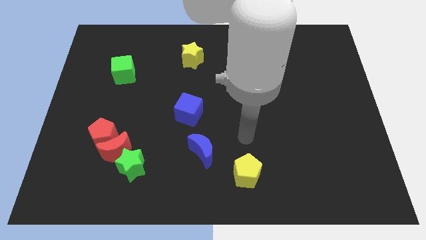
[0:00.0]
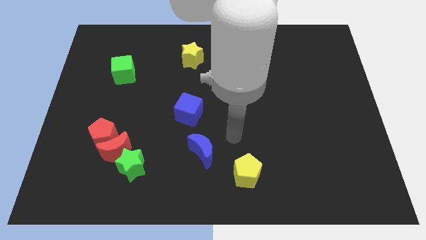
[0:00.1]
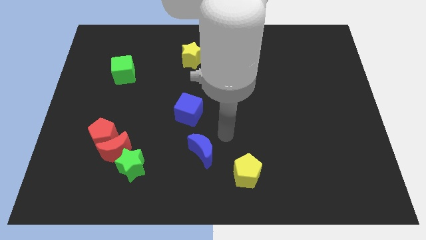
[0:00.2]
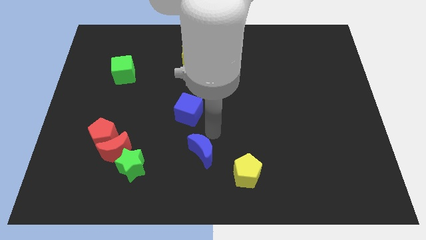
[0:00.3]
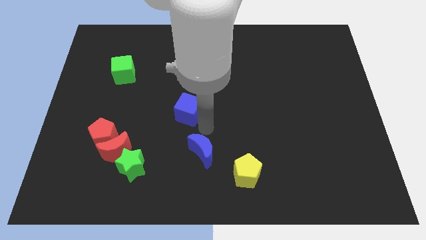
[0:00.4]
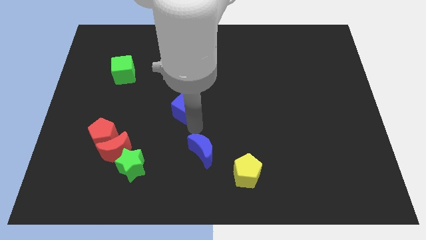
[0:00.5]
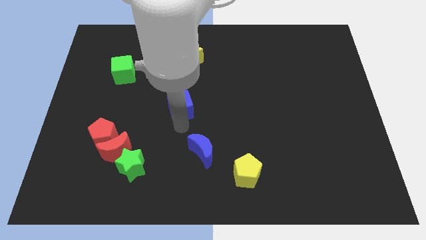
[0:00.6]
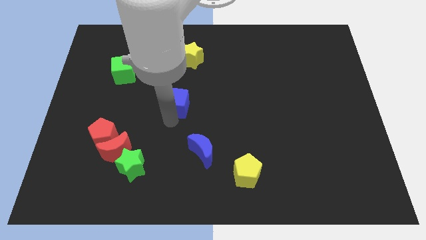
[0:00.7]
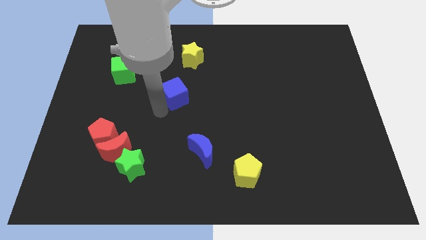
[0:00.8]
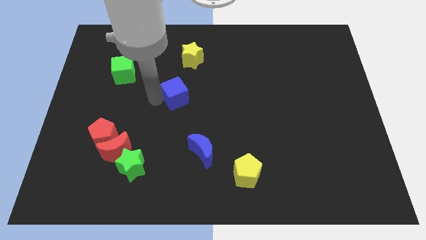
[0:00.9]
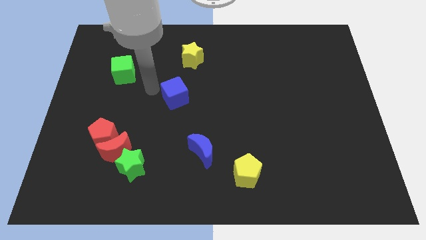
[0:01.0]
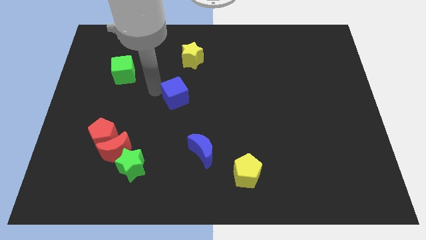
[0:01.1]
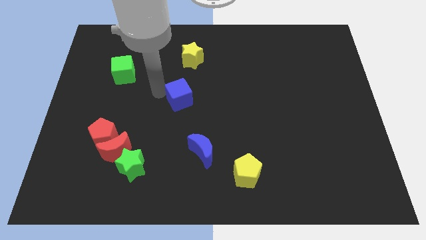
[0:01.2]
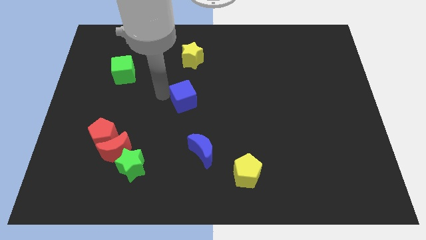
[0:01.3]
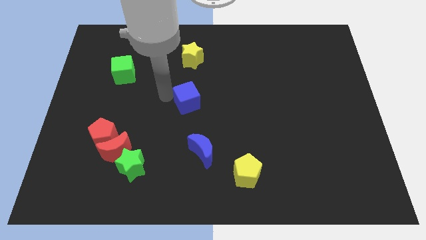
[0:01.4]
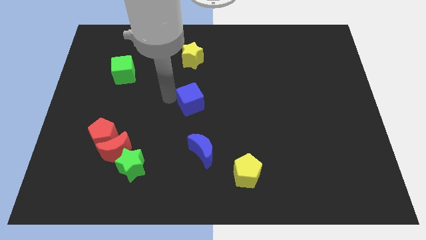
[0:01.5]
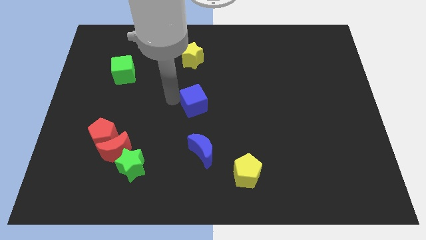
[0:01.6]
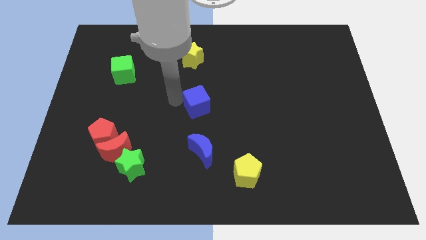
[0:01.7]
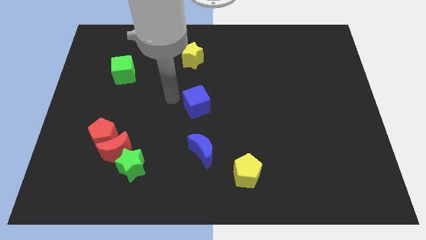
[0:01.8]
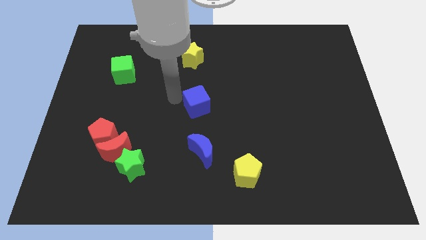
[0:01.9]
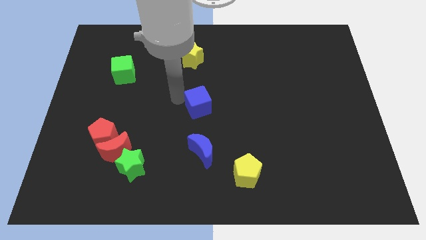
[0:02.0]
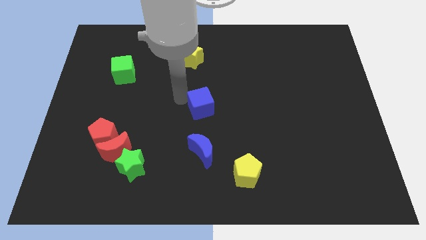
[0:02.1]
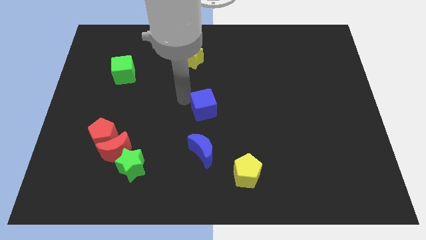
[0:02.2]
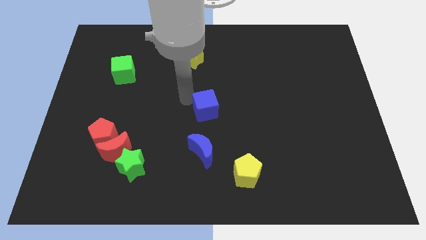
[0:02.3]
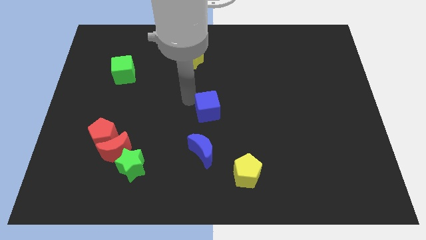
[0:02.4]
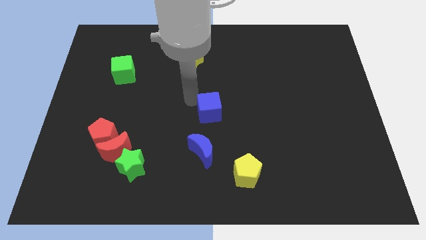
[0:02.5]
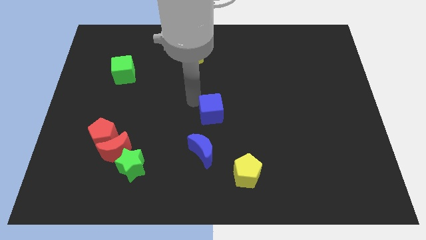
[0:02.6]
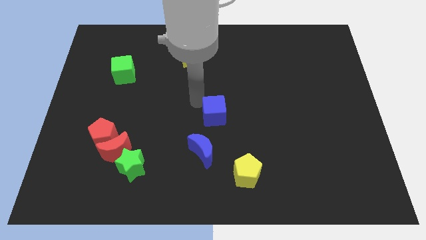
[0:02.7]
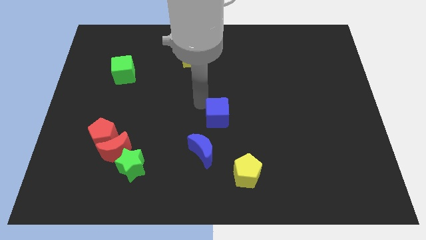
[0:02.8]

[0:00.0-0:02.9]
move the blue cube to the right a little

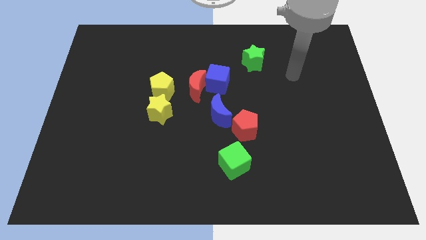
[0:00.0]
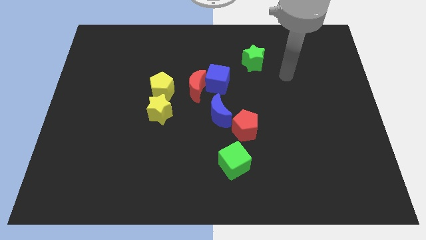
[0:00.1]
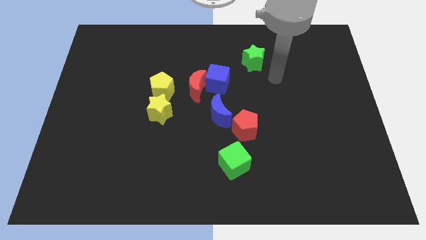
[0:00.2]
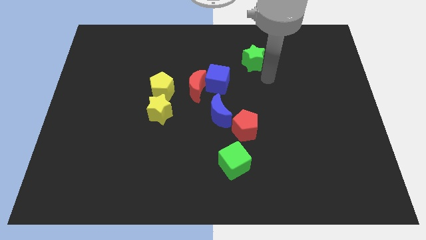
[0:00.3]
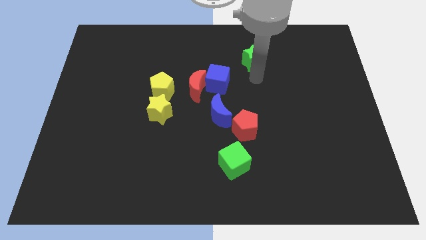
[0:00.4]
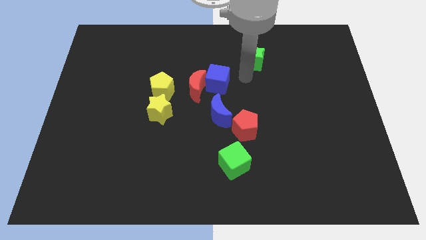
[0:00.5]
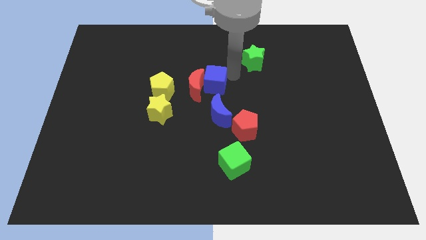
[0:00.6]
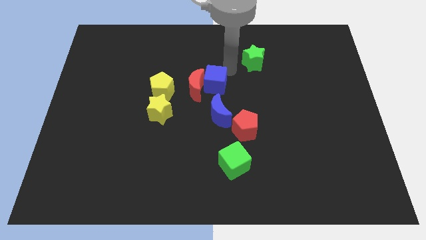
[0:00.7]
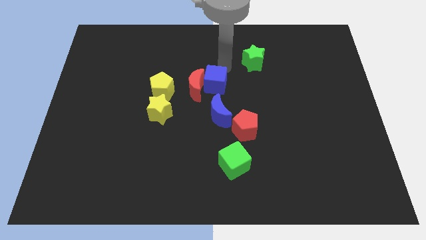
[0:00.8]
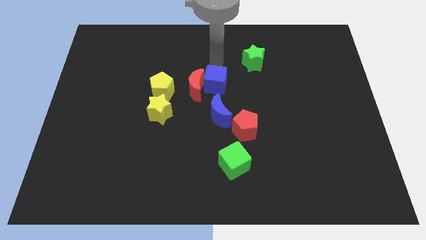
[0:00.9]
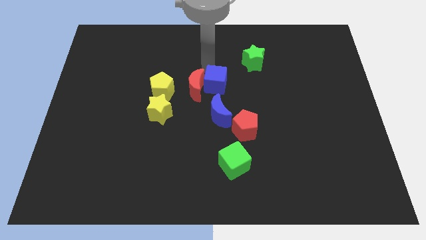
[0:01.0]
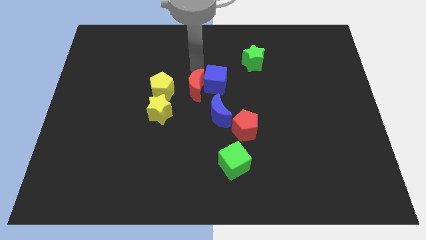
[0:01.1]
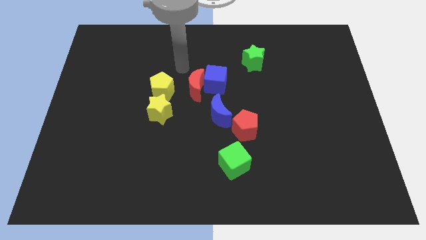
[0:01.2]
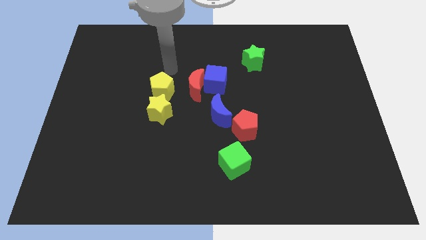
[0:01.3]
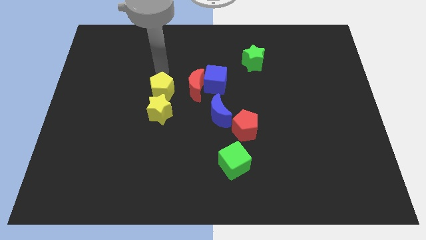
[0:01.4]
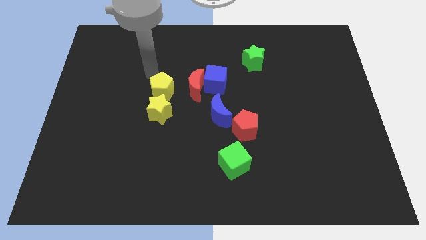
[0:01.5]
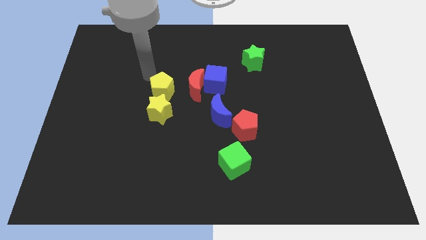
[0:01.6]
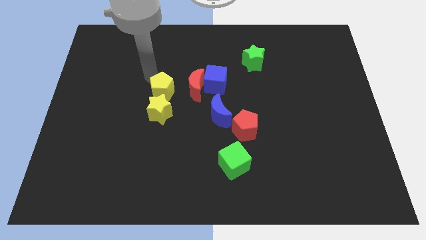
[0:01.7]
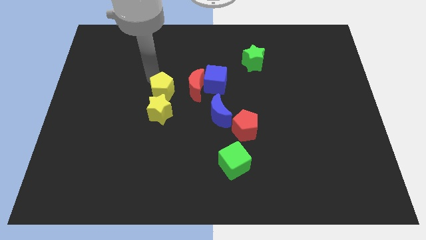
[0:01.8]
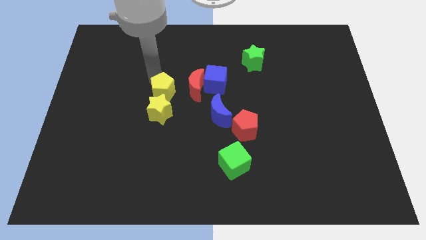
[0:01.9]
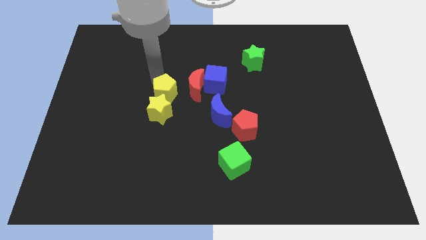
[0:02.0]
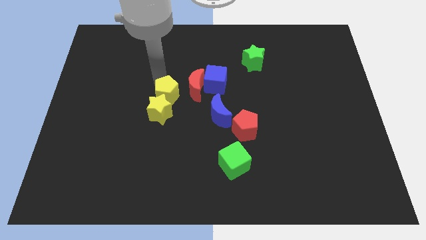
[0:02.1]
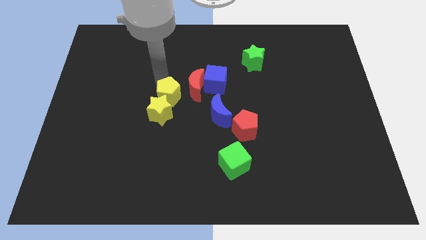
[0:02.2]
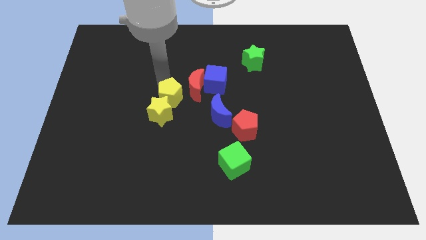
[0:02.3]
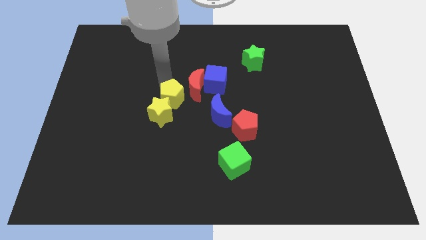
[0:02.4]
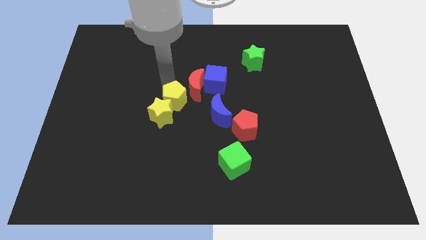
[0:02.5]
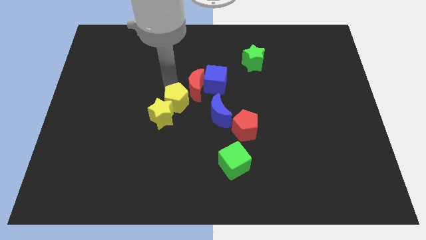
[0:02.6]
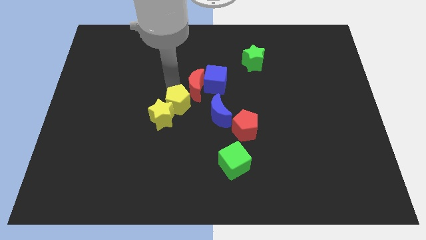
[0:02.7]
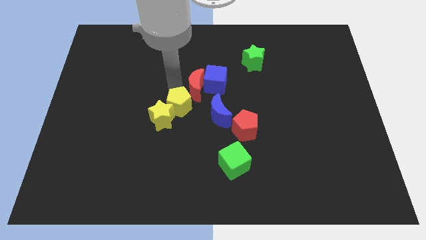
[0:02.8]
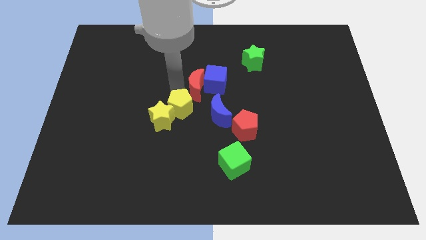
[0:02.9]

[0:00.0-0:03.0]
move the yellow pentagon diagonally down and to the right a bit

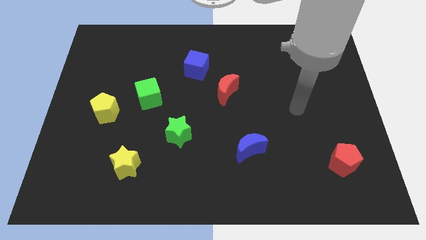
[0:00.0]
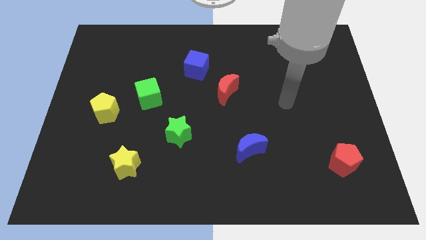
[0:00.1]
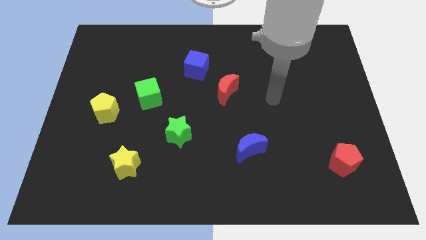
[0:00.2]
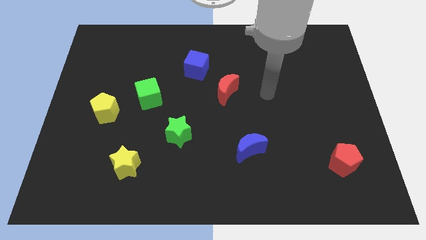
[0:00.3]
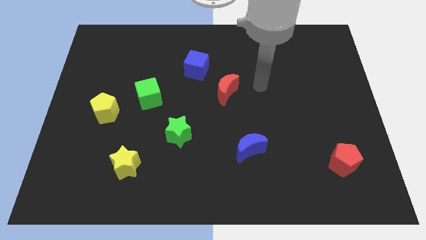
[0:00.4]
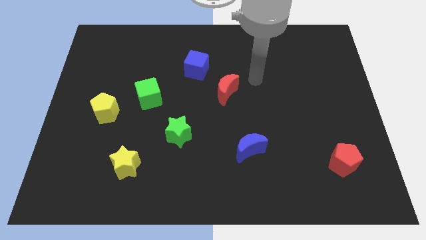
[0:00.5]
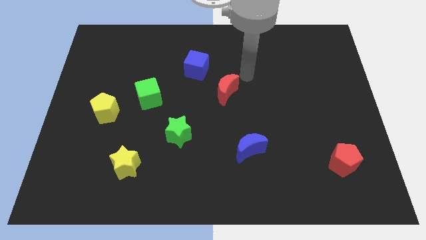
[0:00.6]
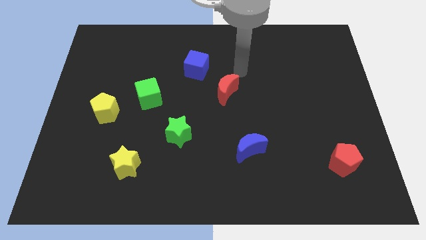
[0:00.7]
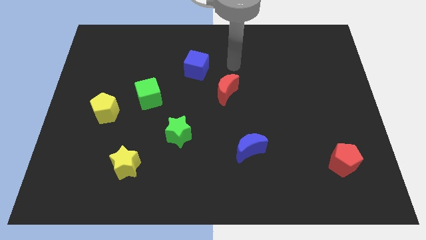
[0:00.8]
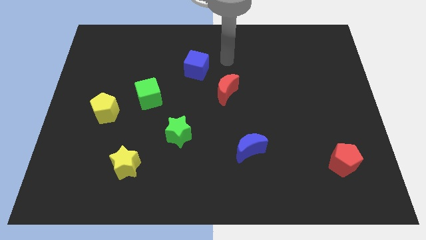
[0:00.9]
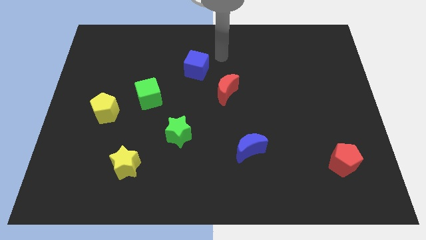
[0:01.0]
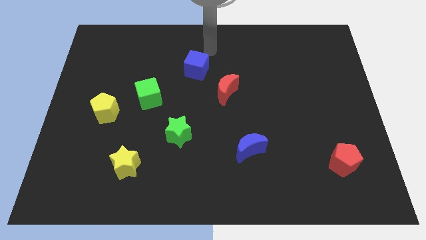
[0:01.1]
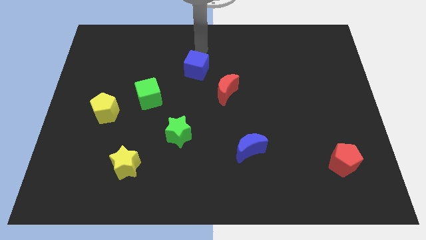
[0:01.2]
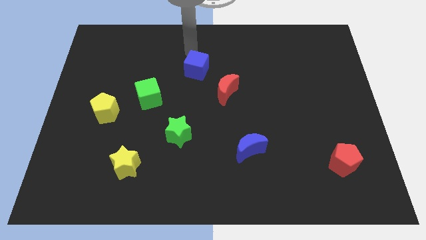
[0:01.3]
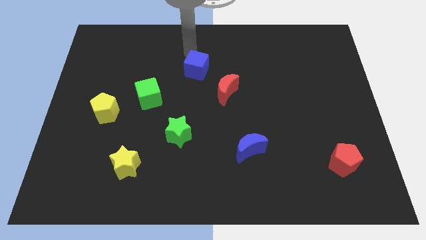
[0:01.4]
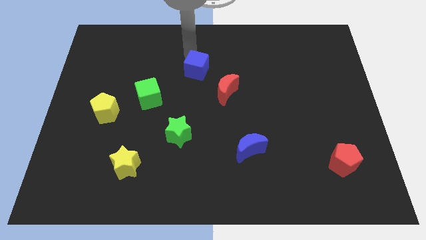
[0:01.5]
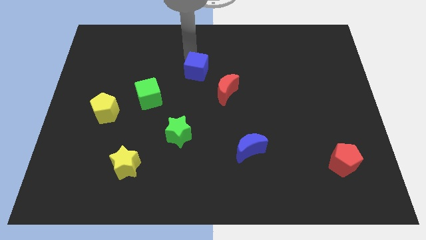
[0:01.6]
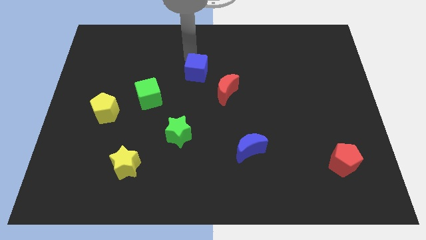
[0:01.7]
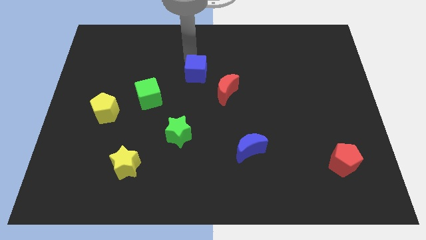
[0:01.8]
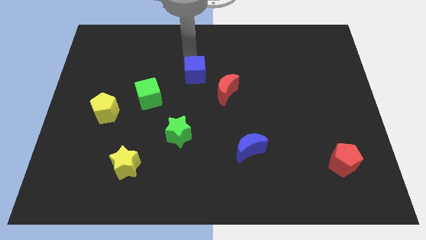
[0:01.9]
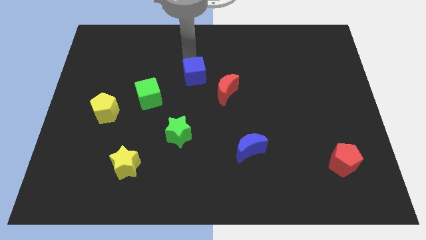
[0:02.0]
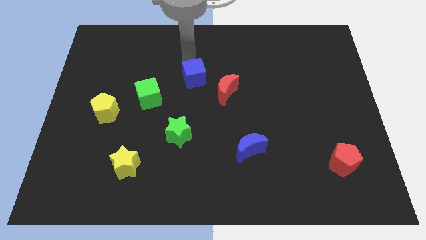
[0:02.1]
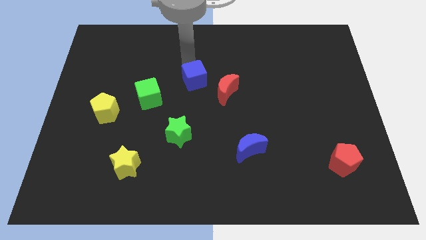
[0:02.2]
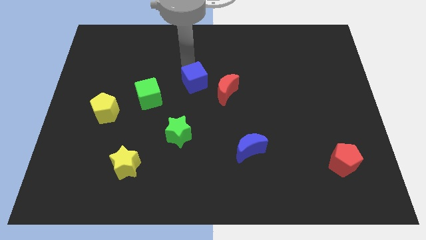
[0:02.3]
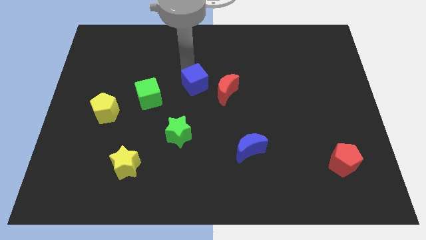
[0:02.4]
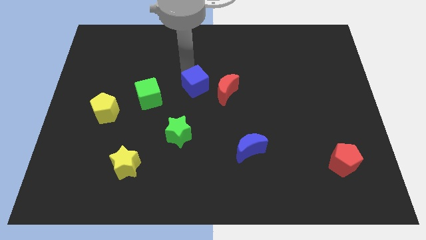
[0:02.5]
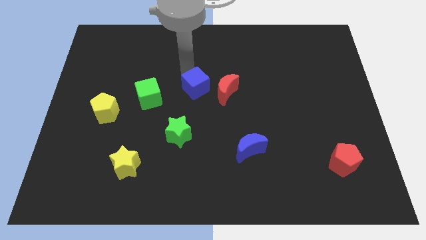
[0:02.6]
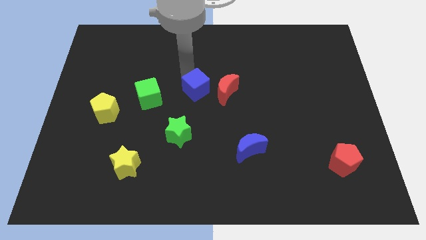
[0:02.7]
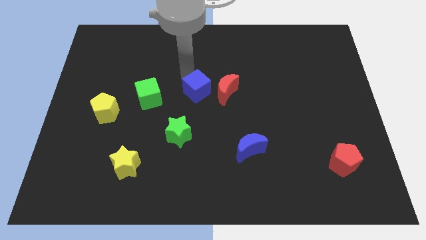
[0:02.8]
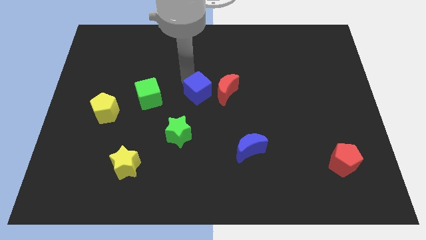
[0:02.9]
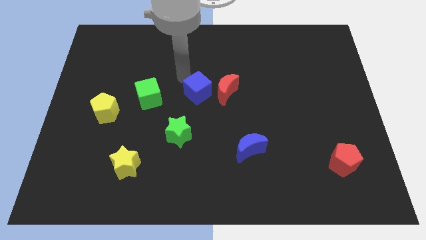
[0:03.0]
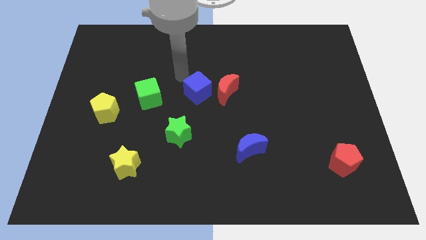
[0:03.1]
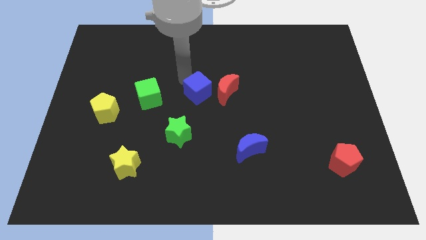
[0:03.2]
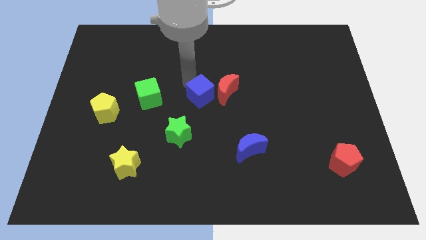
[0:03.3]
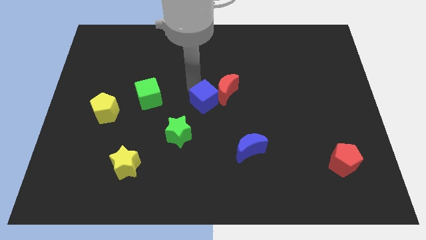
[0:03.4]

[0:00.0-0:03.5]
slide the blue cube somewhat down and then to the right
